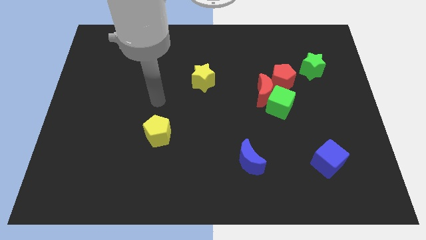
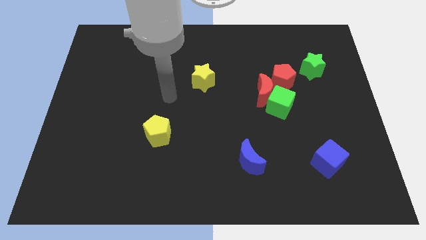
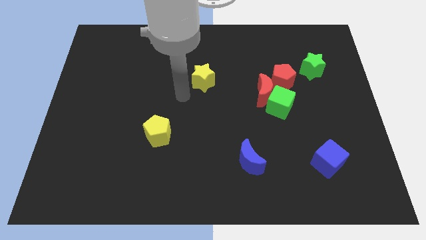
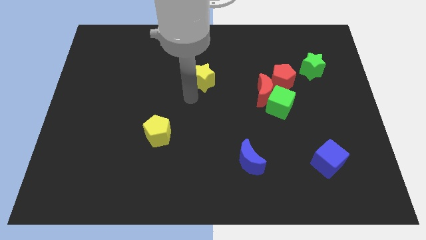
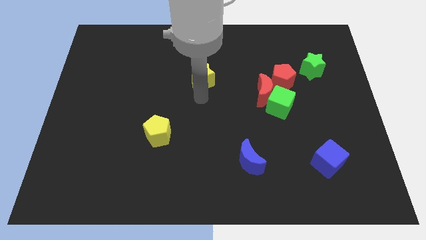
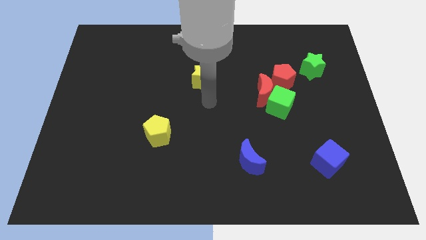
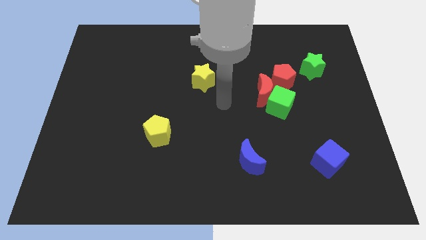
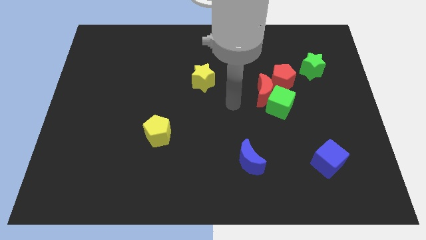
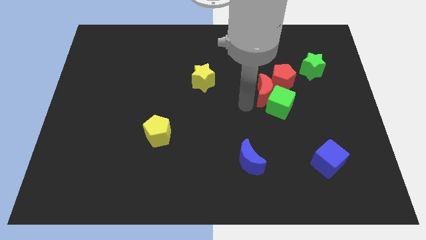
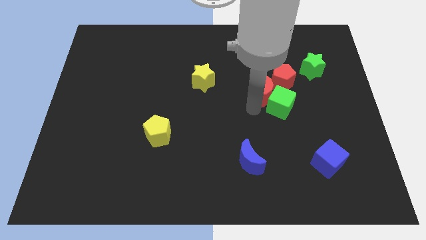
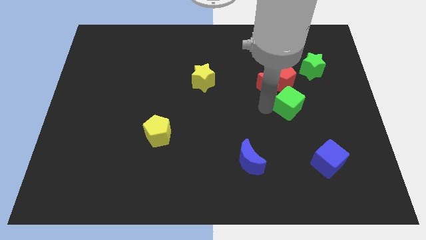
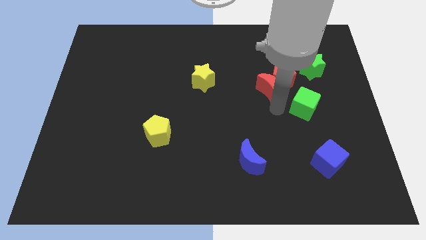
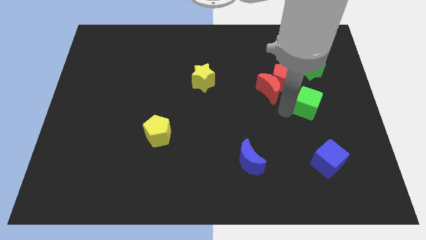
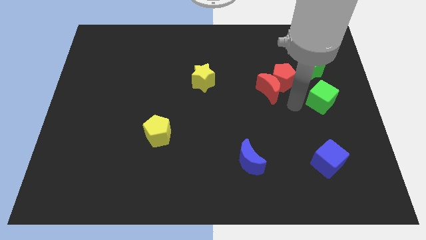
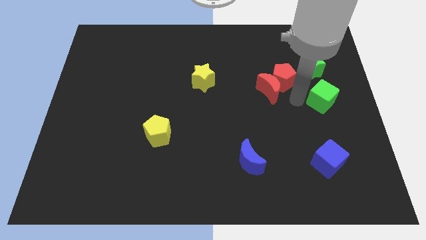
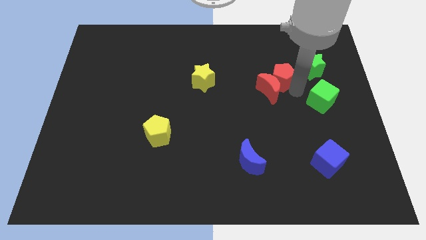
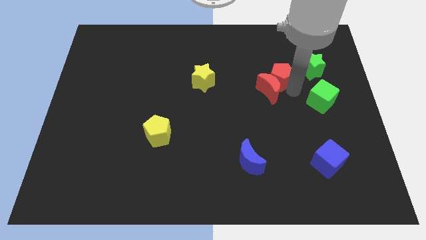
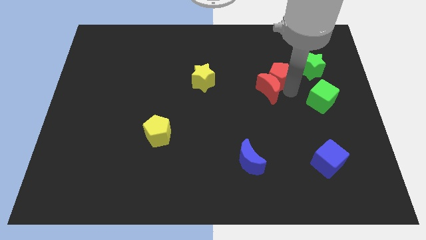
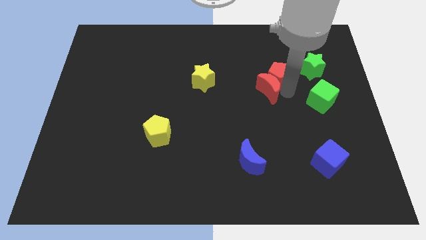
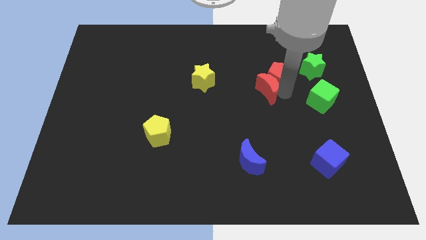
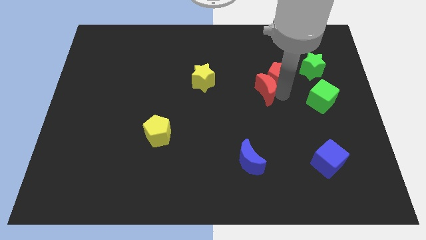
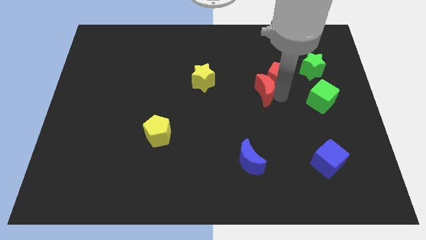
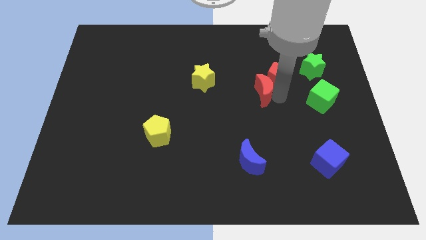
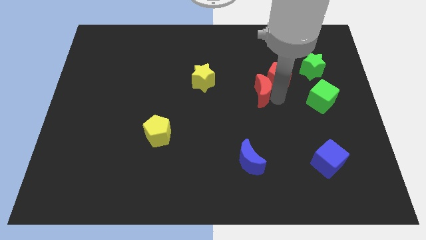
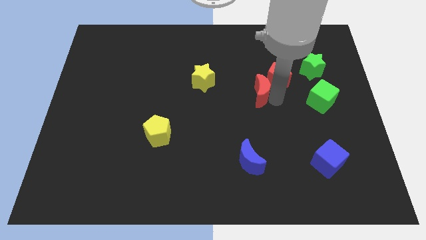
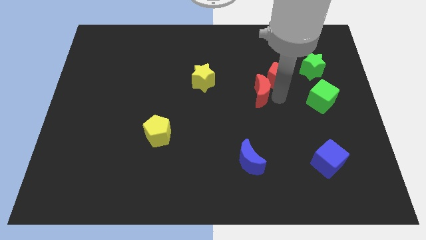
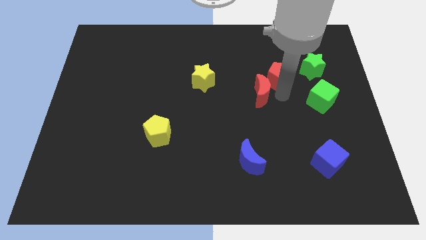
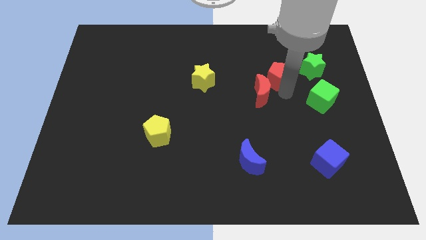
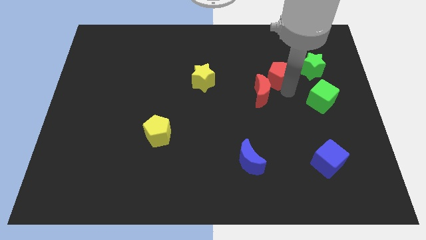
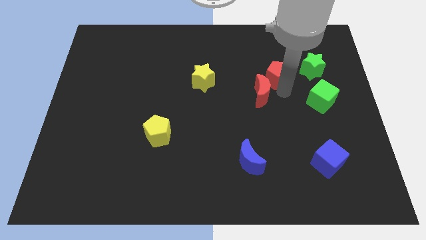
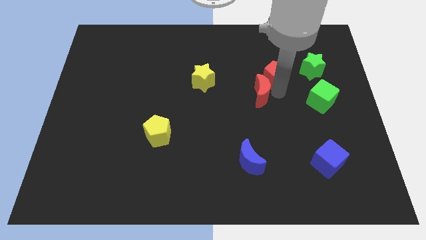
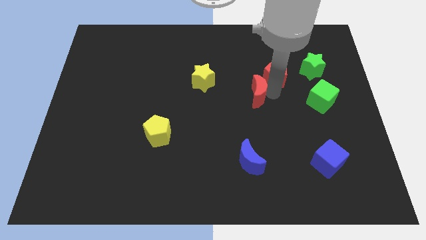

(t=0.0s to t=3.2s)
separate the red moon from the green cube and red pentagon

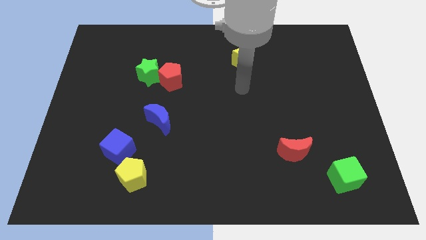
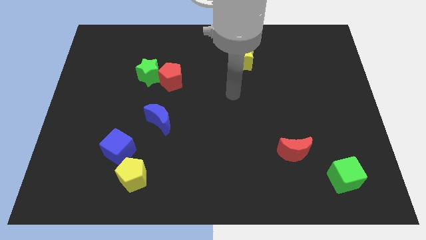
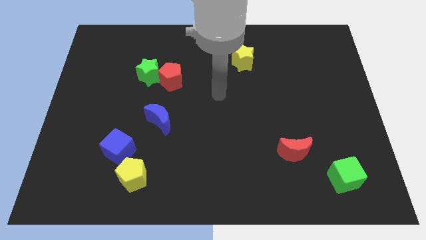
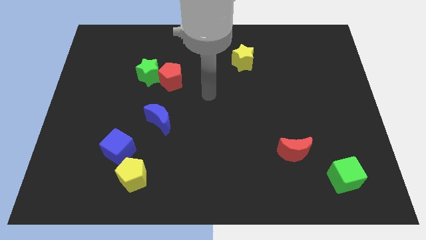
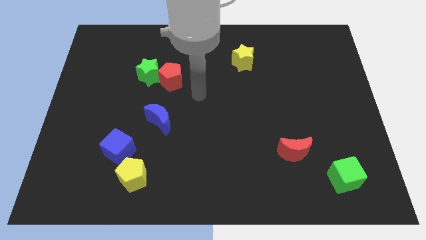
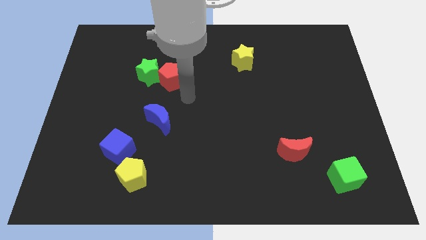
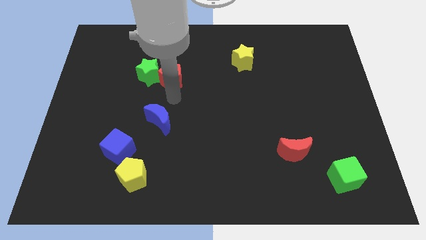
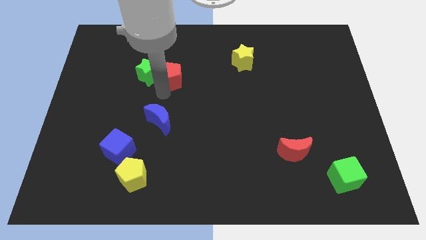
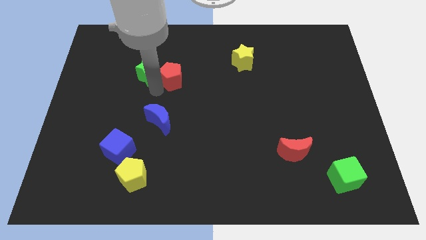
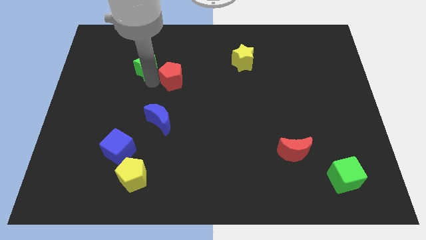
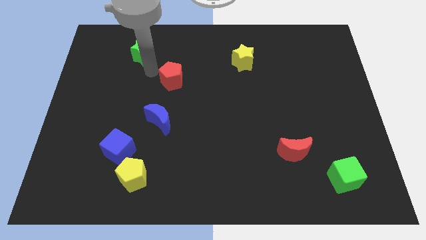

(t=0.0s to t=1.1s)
separate the red pentagon from the green star

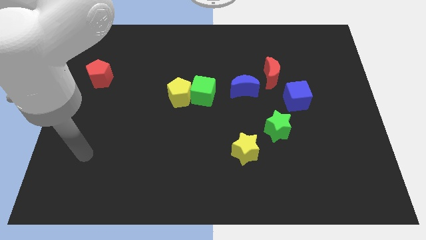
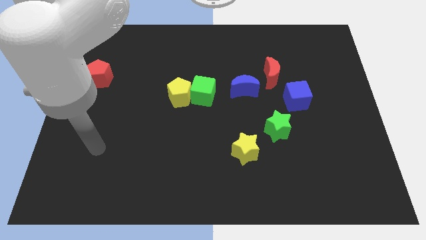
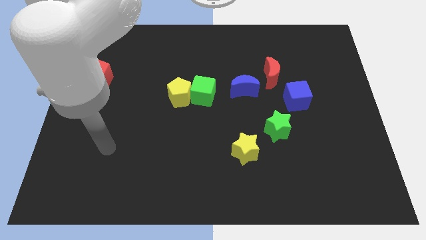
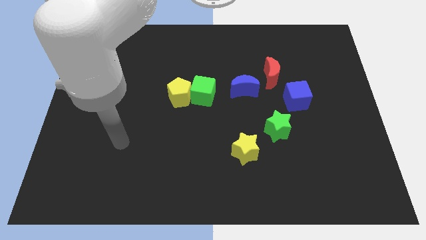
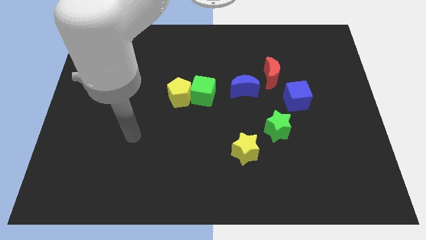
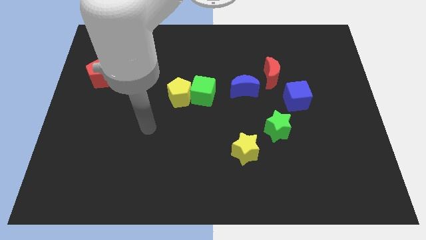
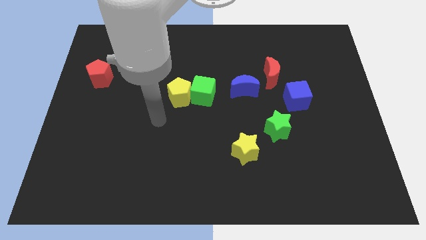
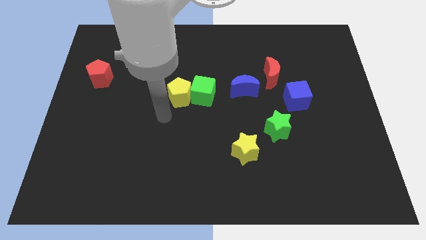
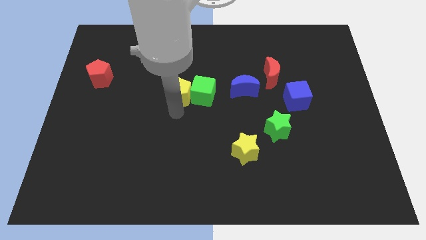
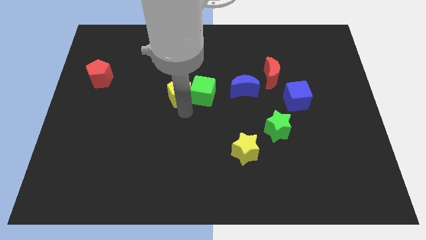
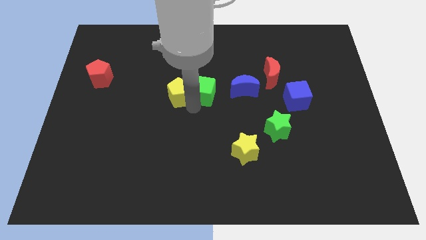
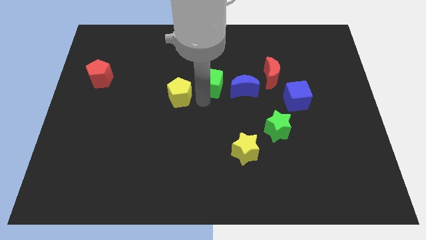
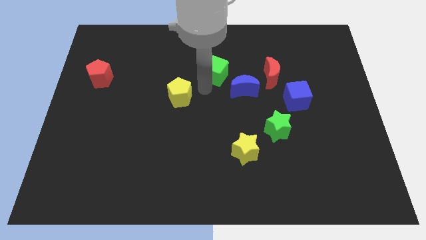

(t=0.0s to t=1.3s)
pull the yellow pentagon apart from the green cube

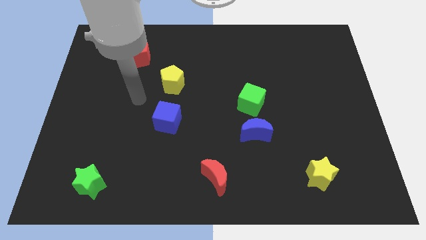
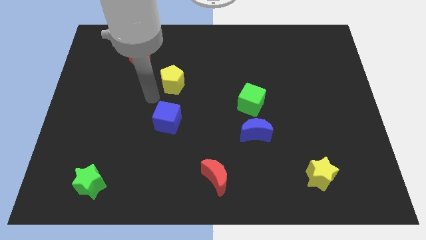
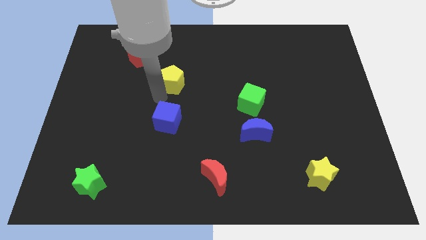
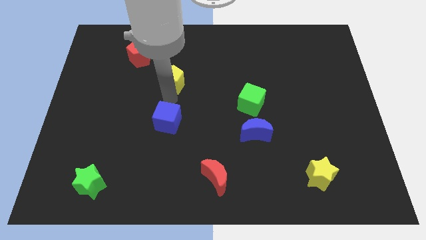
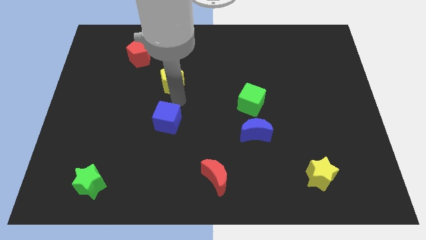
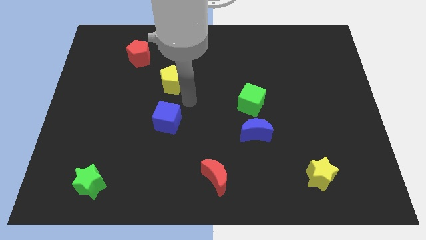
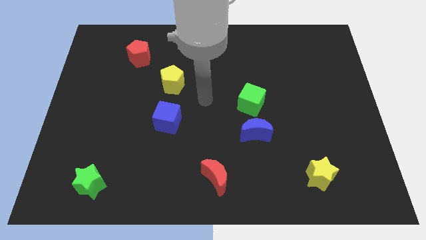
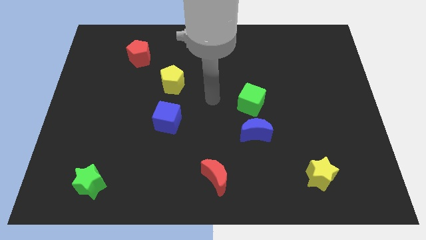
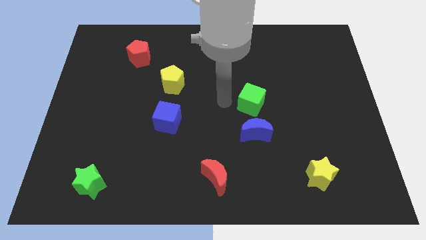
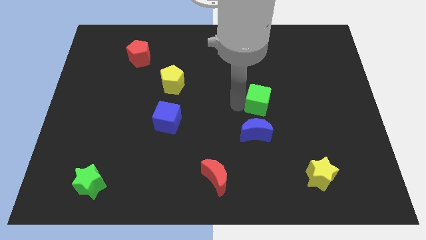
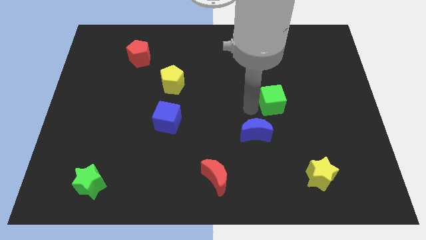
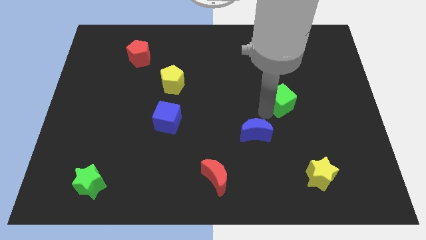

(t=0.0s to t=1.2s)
pull the blue moon apart from the green cube

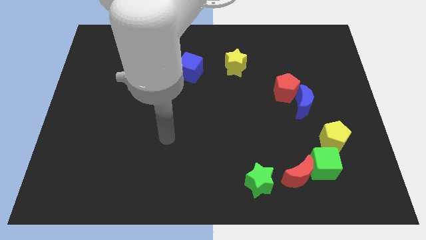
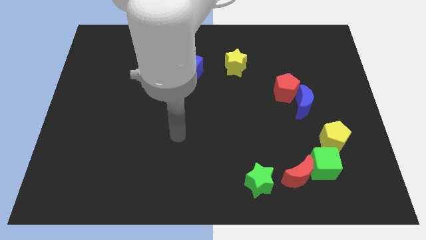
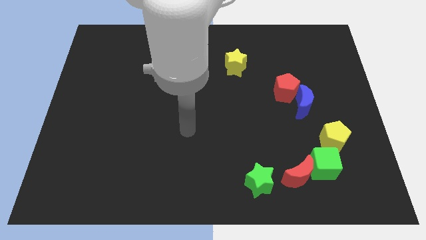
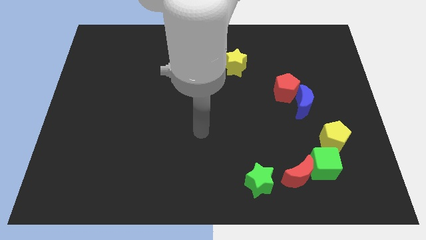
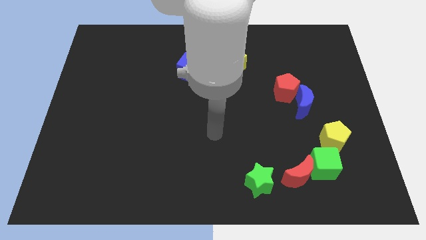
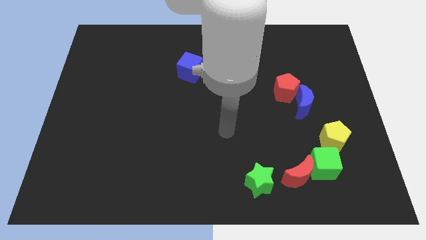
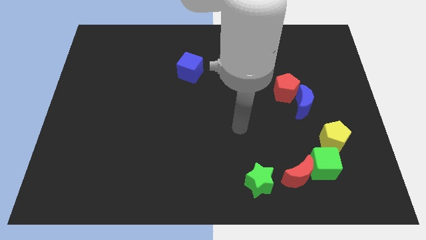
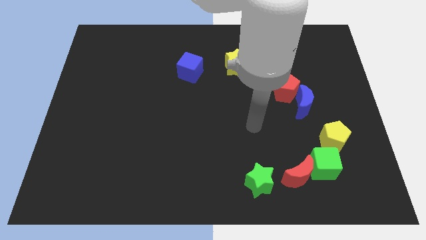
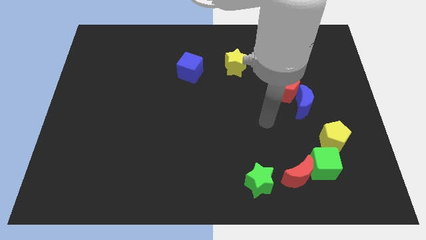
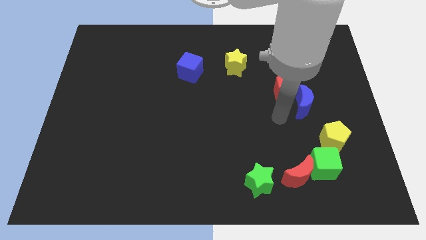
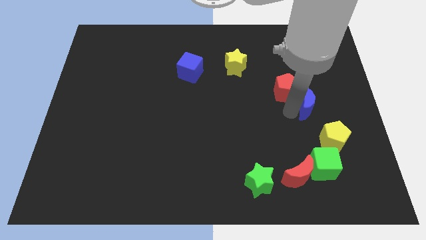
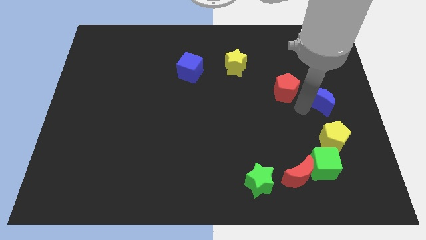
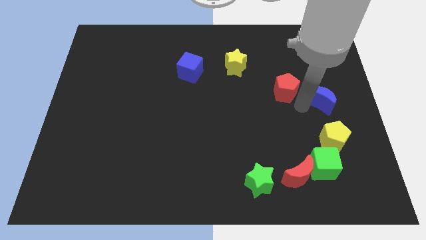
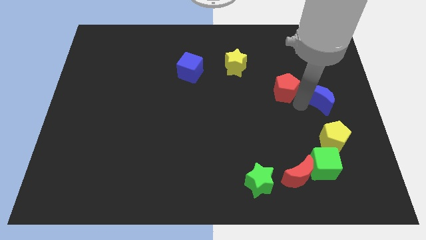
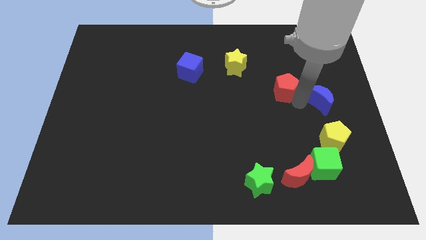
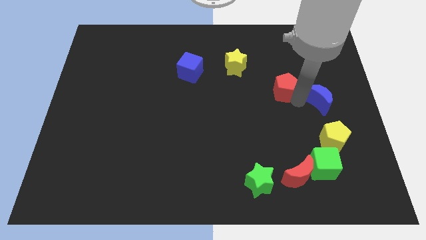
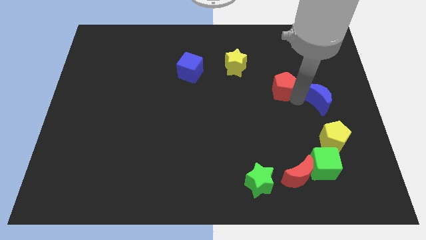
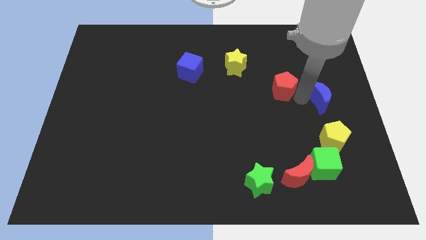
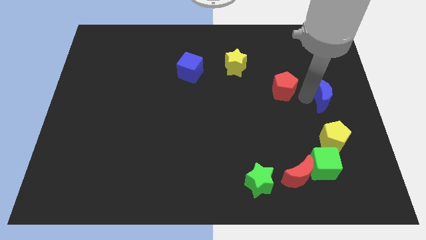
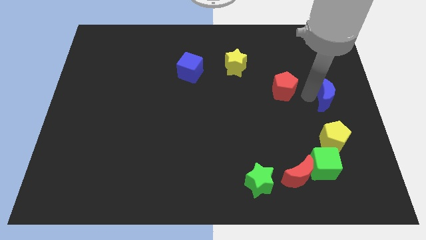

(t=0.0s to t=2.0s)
separate the red pentagon from the blue moon

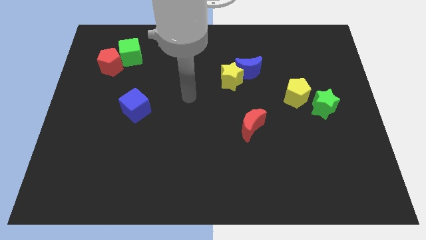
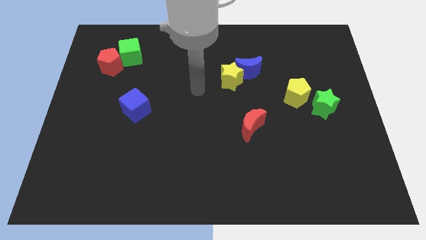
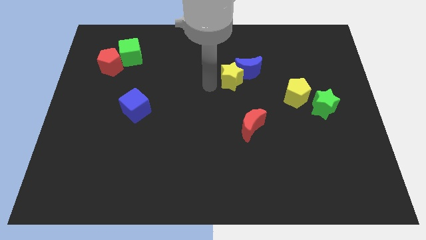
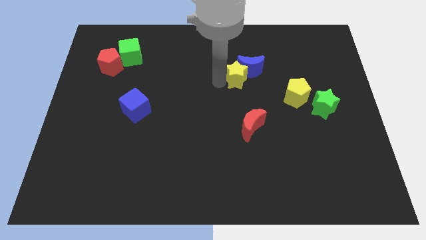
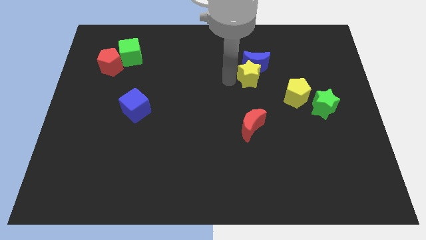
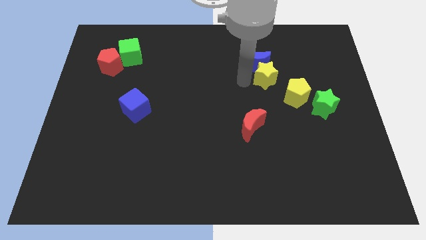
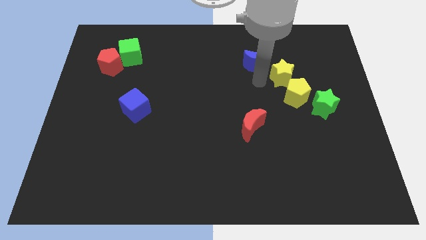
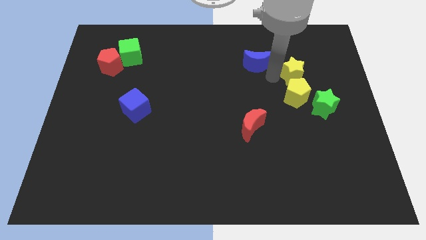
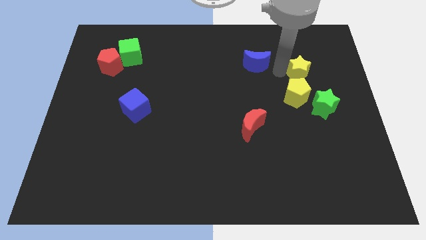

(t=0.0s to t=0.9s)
separate the blue moon from the yellow star
